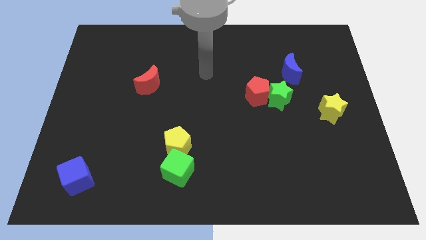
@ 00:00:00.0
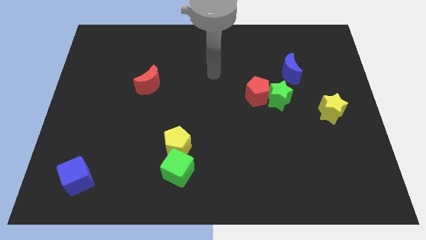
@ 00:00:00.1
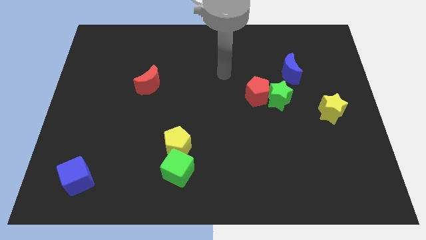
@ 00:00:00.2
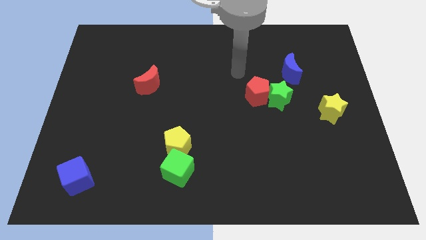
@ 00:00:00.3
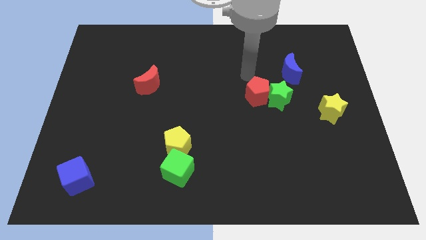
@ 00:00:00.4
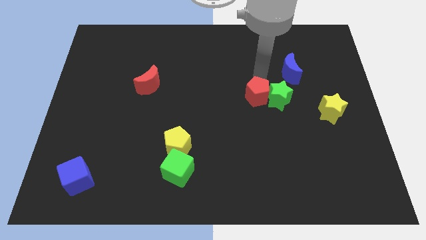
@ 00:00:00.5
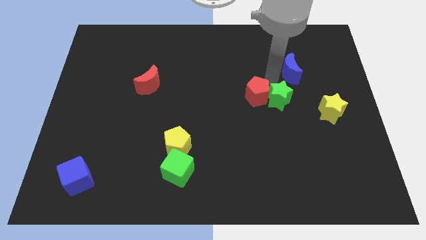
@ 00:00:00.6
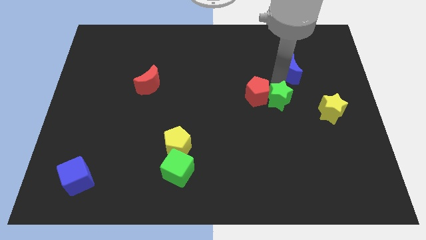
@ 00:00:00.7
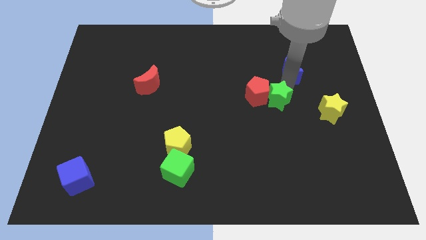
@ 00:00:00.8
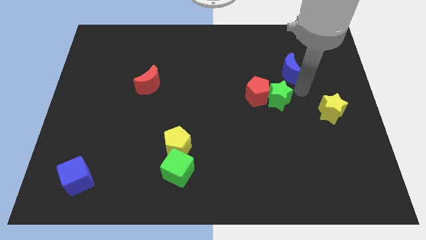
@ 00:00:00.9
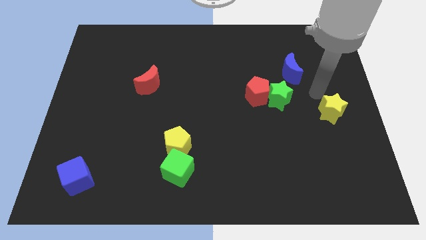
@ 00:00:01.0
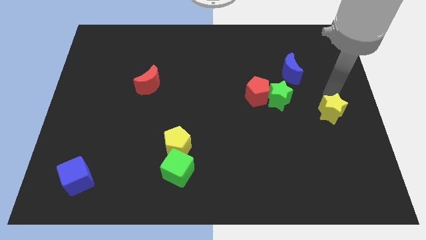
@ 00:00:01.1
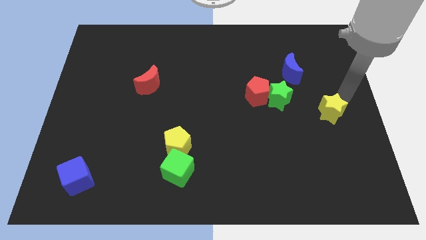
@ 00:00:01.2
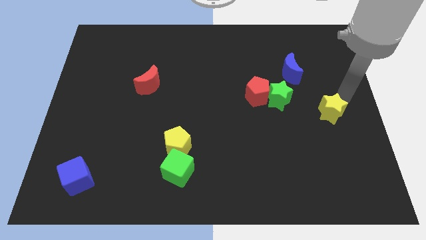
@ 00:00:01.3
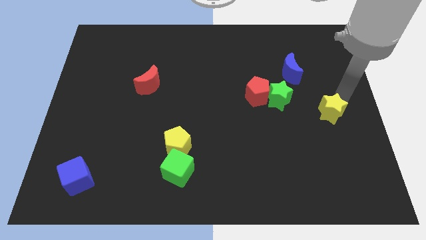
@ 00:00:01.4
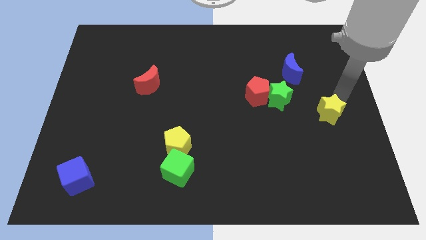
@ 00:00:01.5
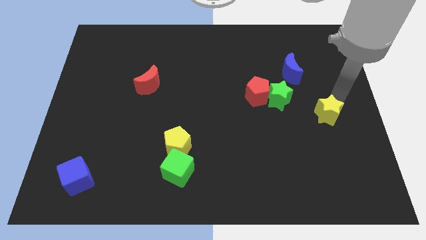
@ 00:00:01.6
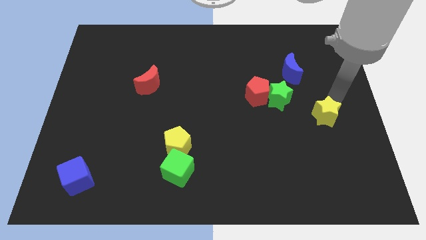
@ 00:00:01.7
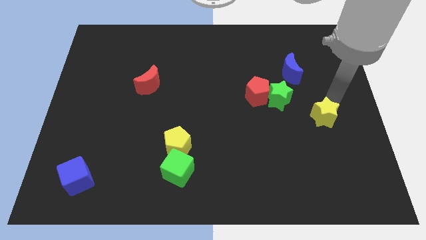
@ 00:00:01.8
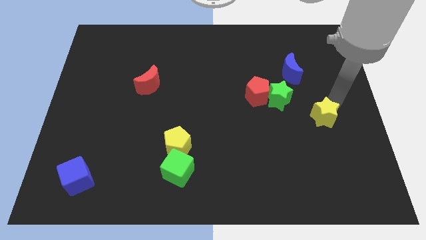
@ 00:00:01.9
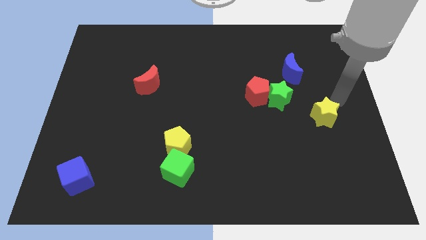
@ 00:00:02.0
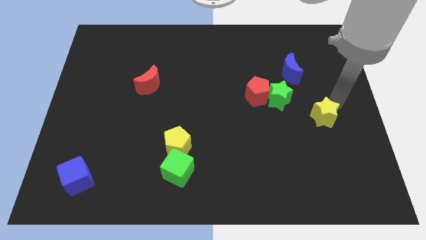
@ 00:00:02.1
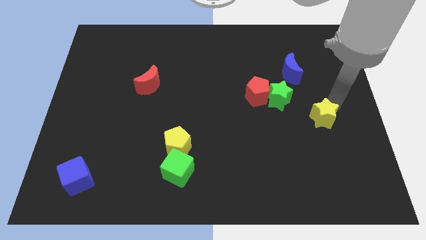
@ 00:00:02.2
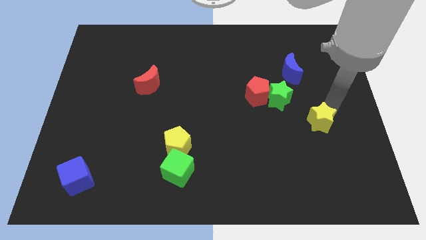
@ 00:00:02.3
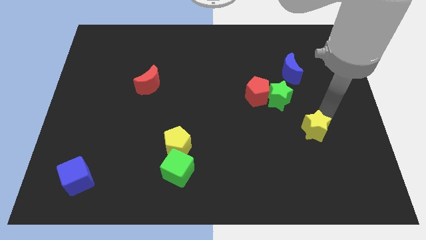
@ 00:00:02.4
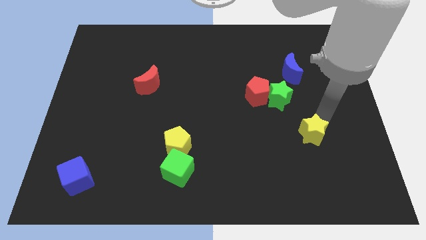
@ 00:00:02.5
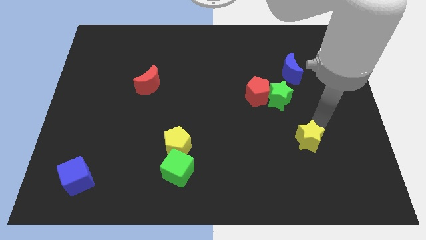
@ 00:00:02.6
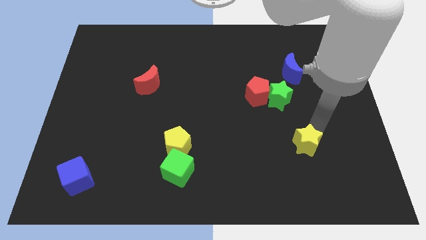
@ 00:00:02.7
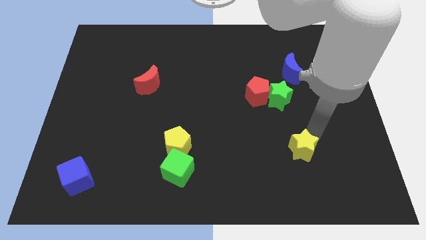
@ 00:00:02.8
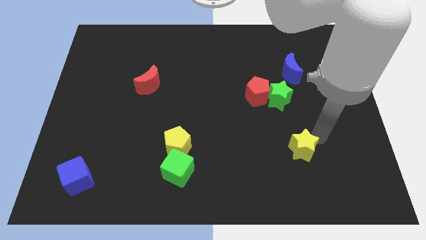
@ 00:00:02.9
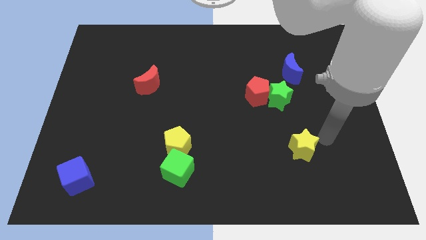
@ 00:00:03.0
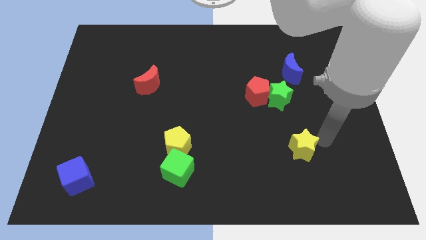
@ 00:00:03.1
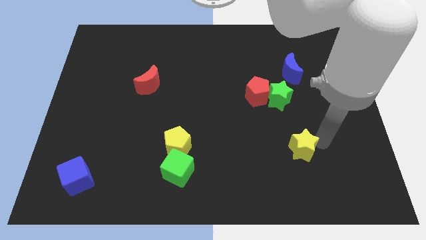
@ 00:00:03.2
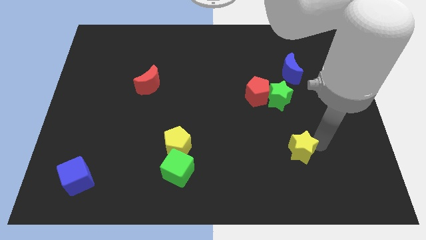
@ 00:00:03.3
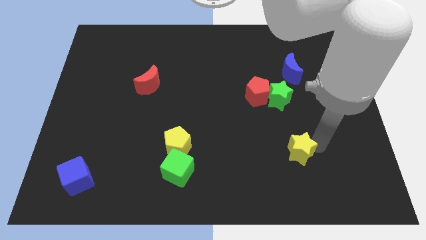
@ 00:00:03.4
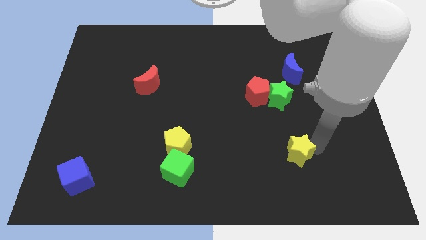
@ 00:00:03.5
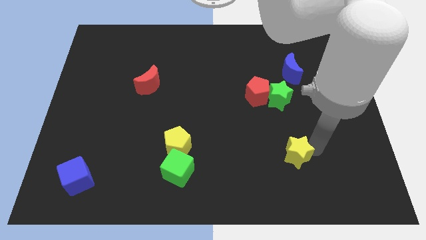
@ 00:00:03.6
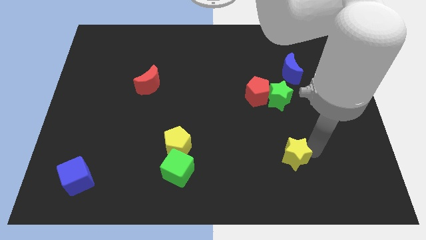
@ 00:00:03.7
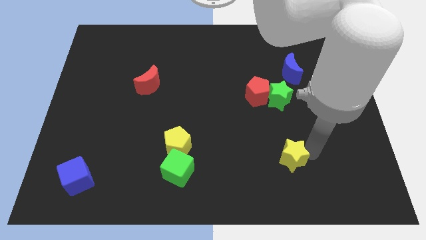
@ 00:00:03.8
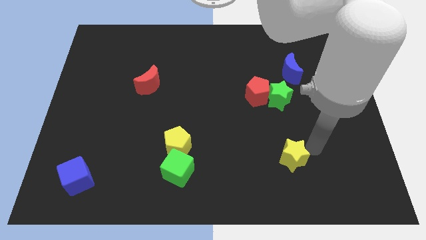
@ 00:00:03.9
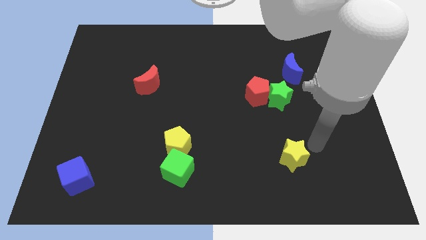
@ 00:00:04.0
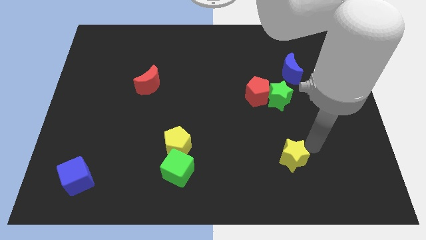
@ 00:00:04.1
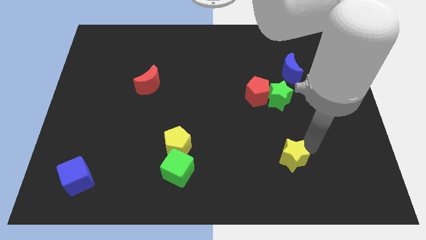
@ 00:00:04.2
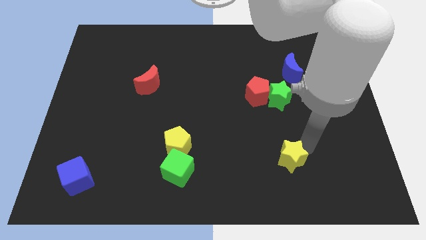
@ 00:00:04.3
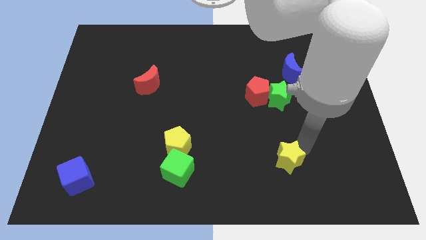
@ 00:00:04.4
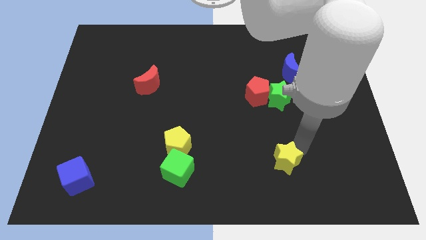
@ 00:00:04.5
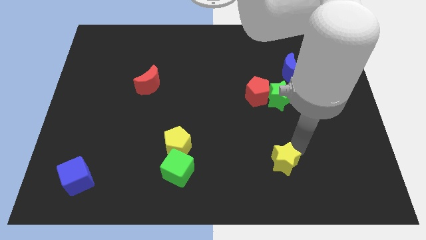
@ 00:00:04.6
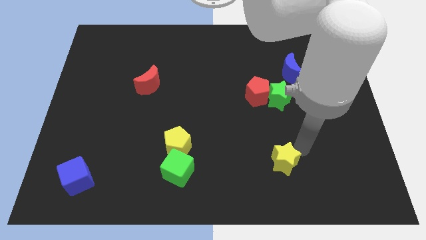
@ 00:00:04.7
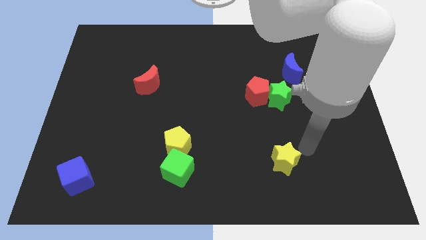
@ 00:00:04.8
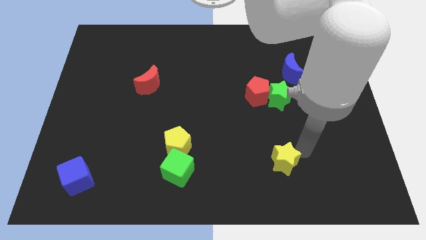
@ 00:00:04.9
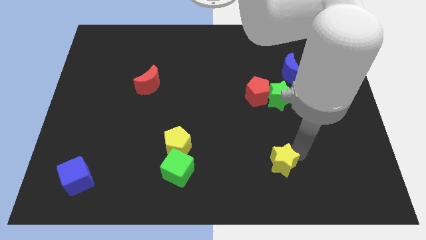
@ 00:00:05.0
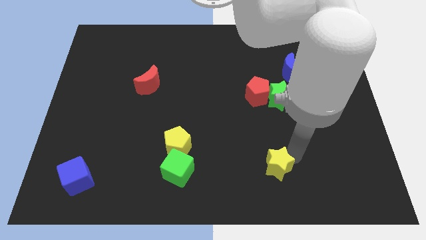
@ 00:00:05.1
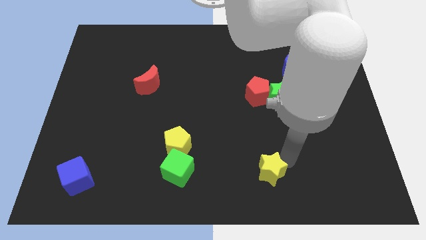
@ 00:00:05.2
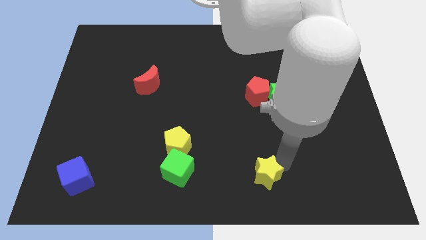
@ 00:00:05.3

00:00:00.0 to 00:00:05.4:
put the yellow star to the bottom

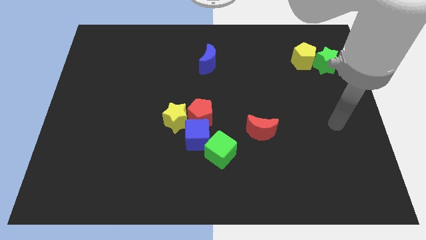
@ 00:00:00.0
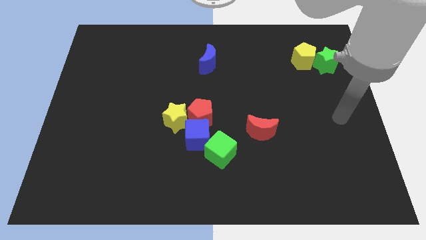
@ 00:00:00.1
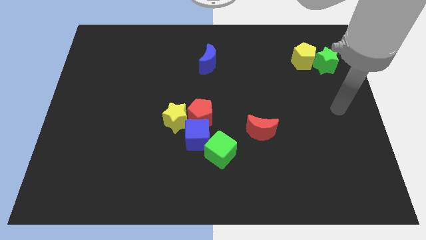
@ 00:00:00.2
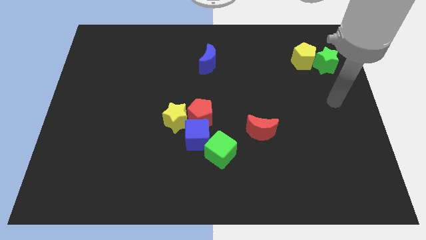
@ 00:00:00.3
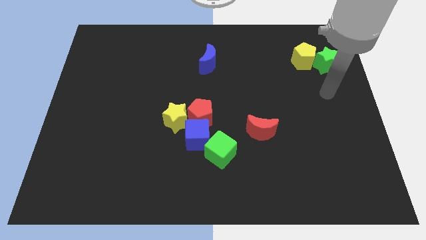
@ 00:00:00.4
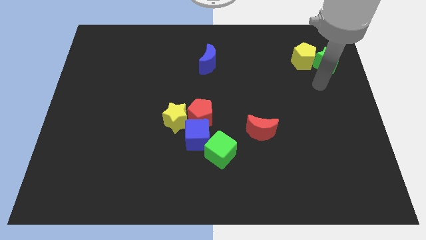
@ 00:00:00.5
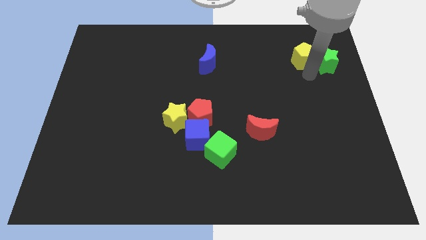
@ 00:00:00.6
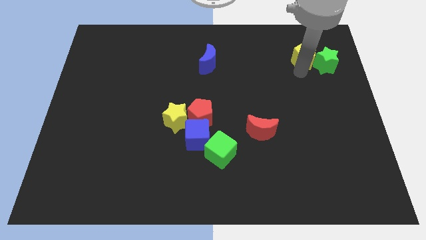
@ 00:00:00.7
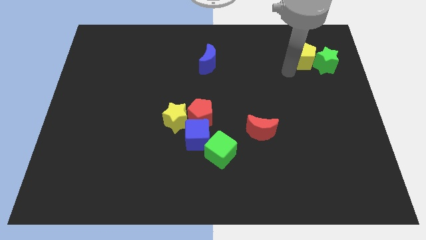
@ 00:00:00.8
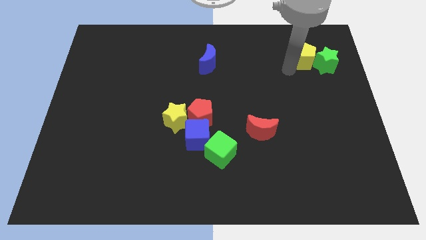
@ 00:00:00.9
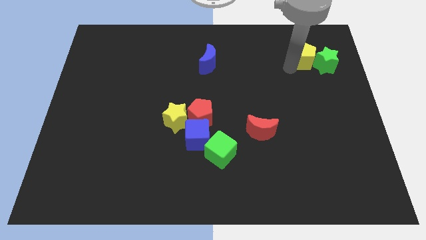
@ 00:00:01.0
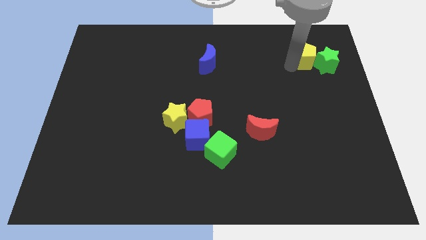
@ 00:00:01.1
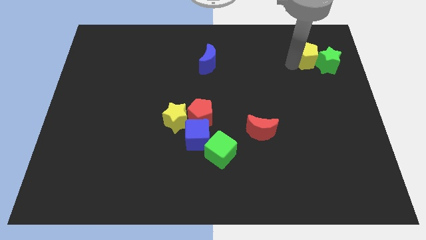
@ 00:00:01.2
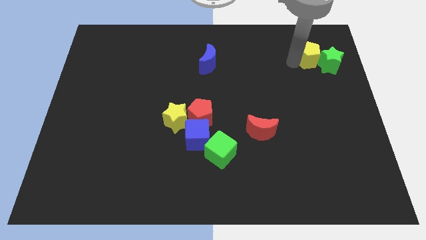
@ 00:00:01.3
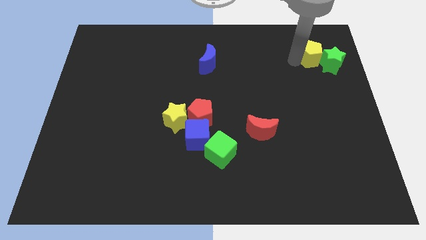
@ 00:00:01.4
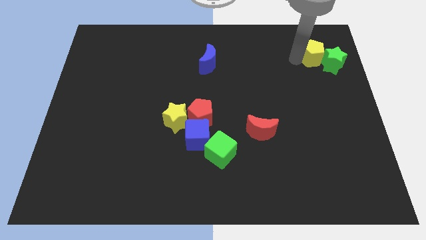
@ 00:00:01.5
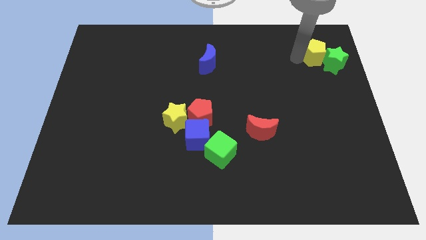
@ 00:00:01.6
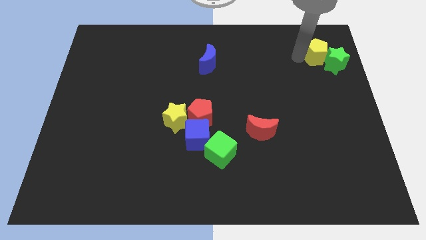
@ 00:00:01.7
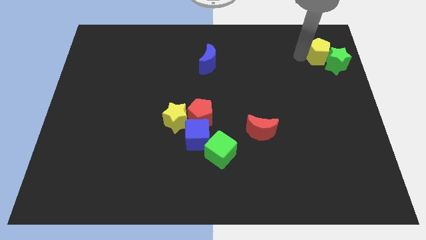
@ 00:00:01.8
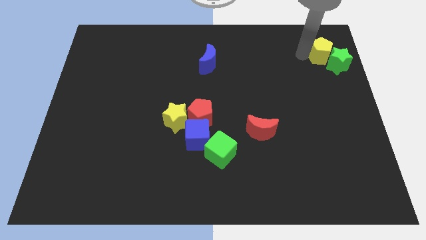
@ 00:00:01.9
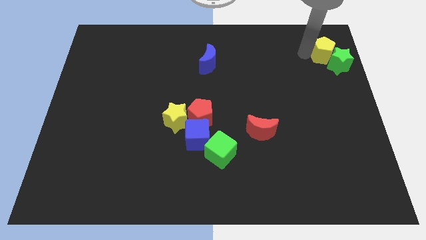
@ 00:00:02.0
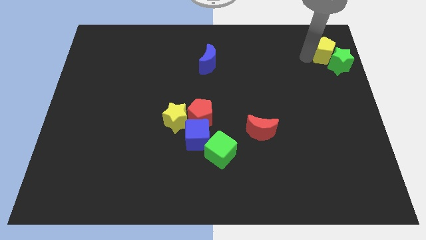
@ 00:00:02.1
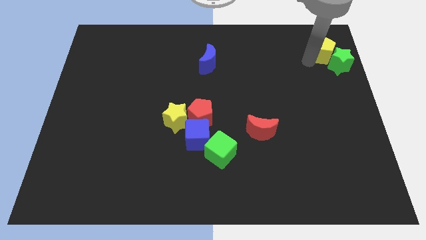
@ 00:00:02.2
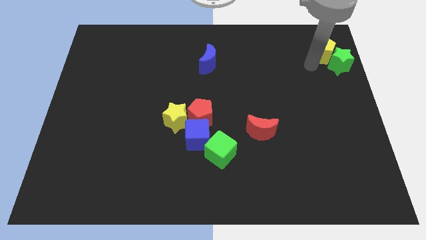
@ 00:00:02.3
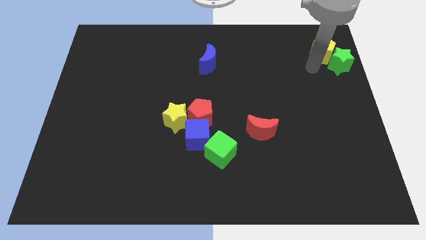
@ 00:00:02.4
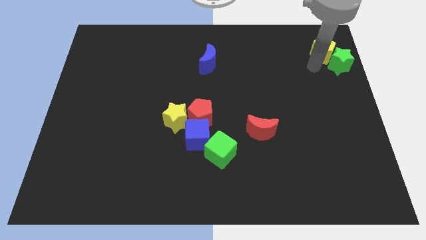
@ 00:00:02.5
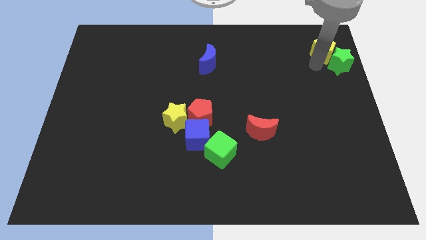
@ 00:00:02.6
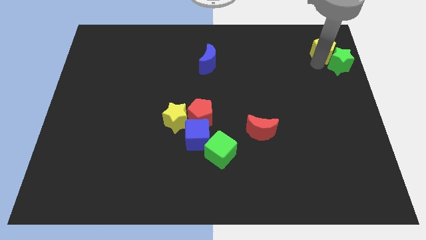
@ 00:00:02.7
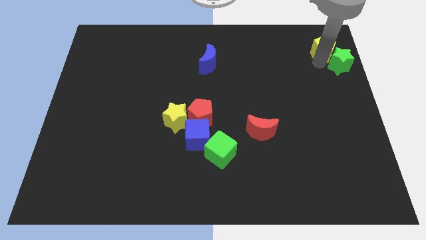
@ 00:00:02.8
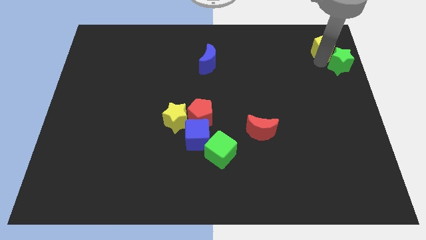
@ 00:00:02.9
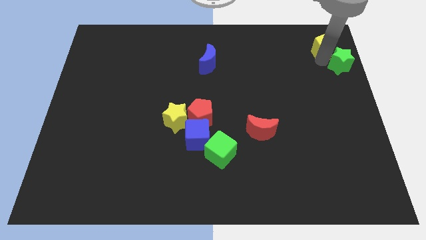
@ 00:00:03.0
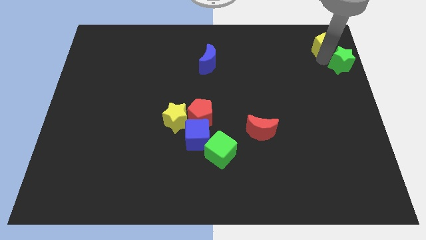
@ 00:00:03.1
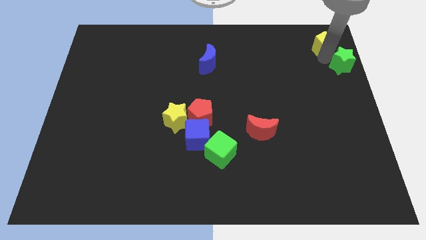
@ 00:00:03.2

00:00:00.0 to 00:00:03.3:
move the yellow pentagon to the top right corner
